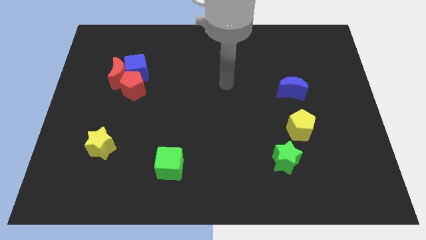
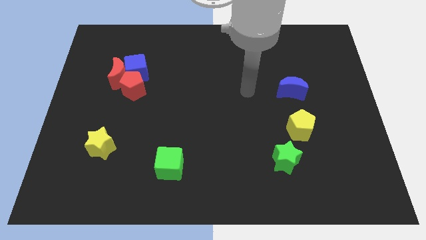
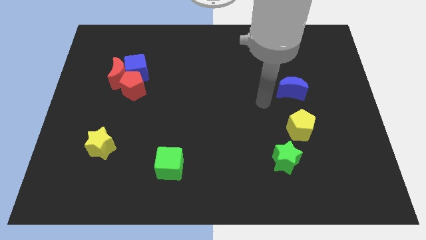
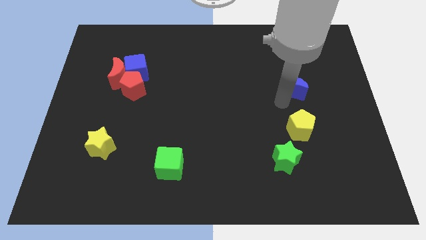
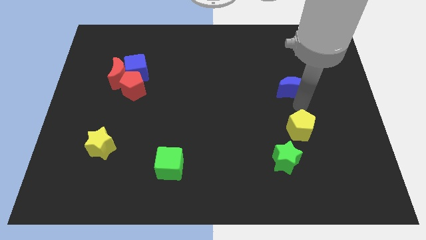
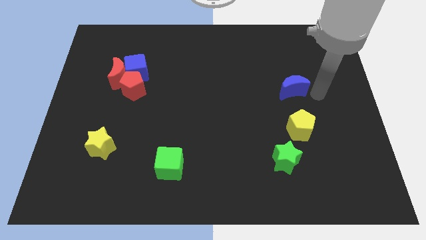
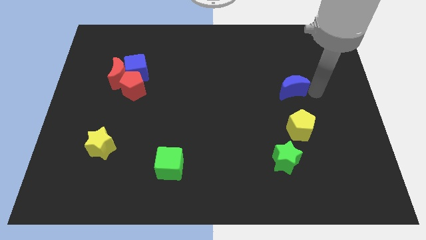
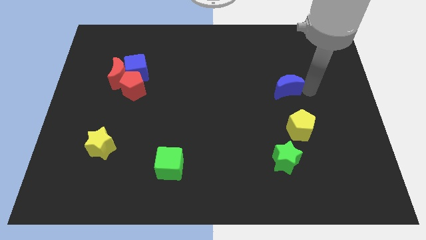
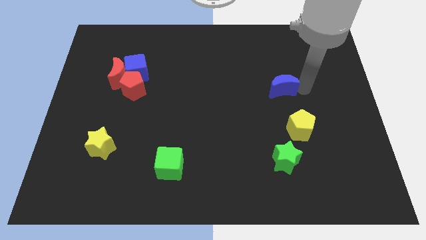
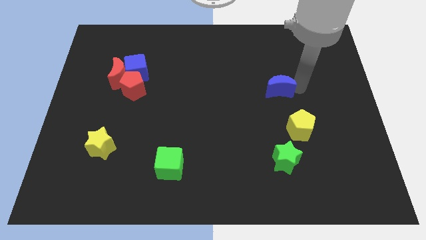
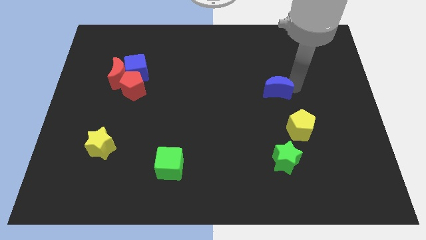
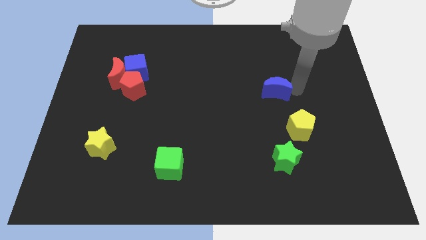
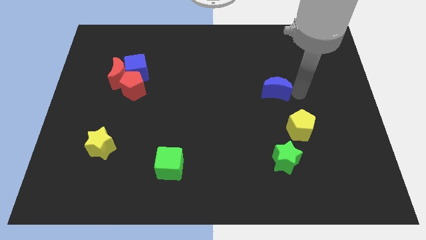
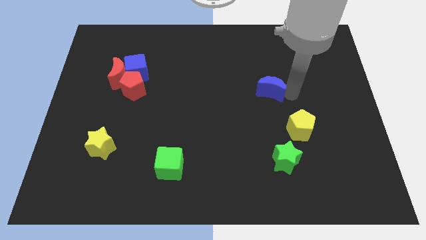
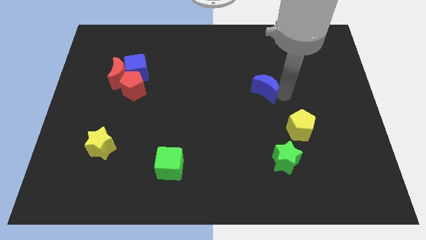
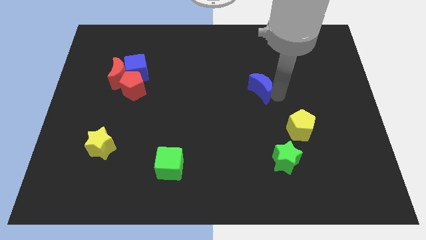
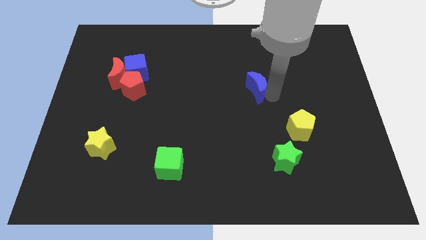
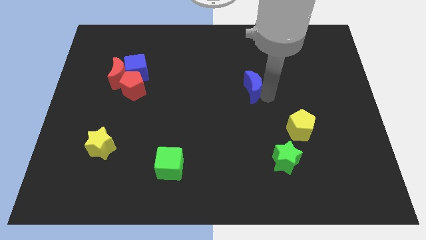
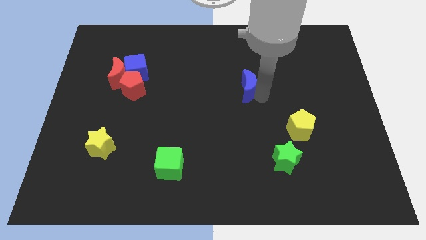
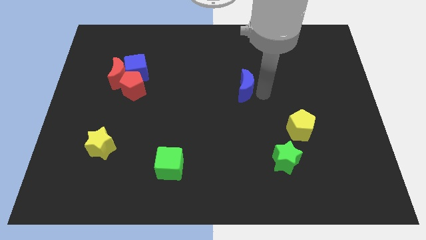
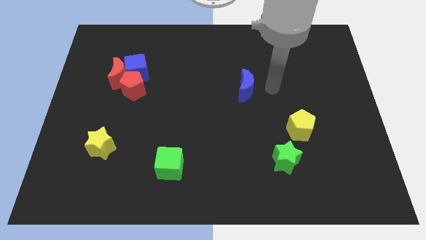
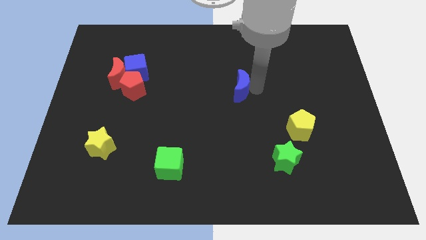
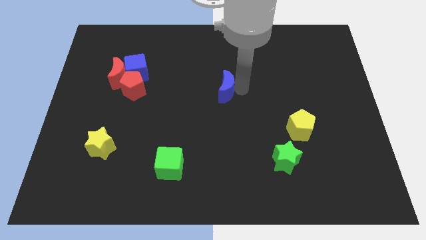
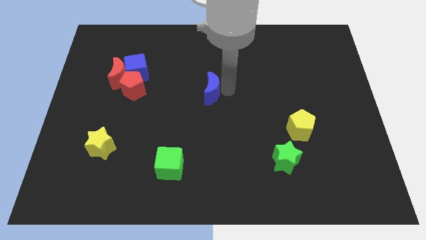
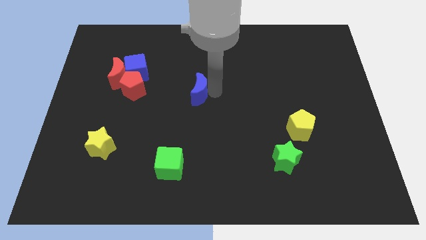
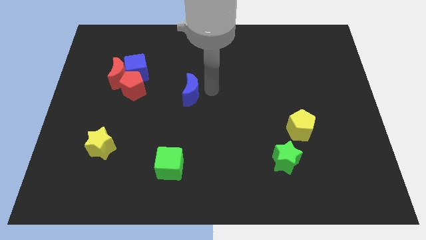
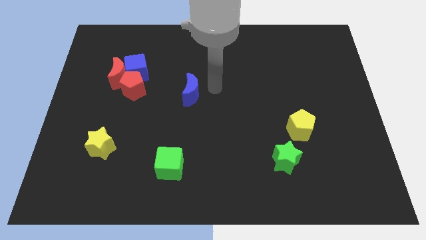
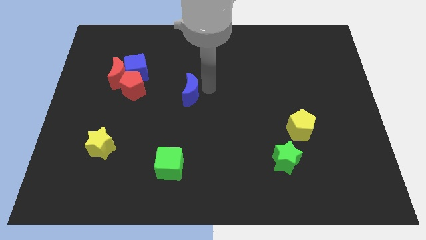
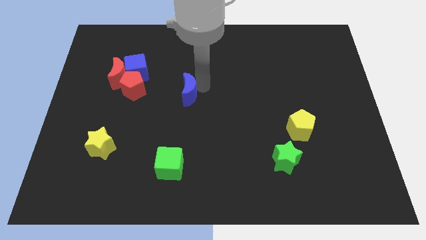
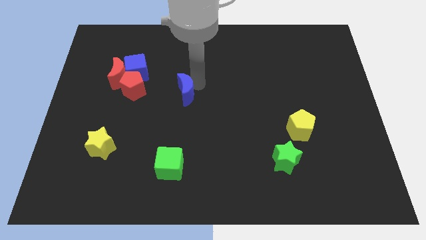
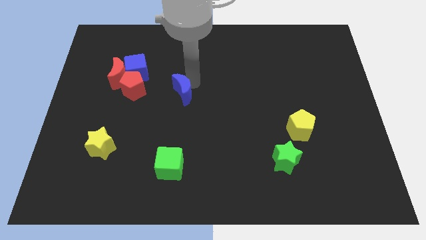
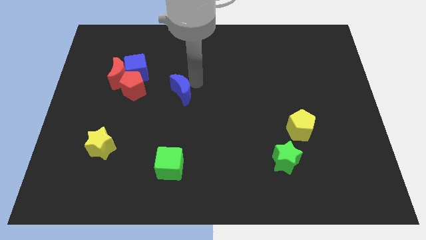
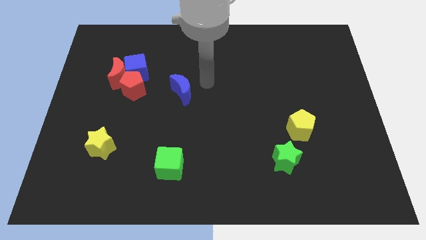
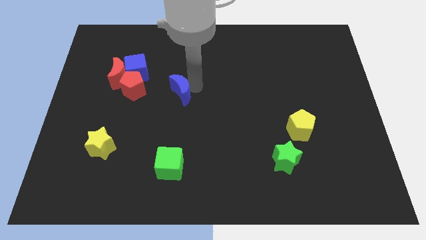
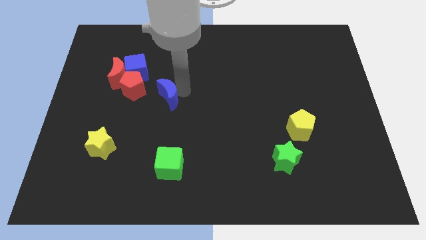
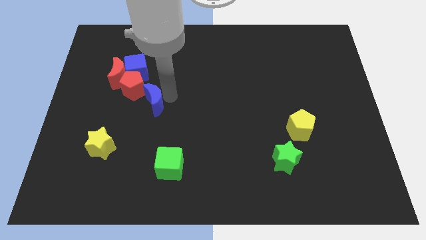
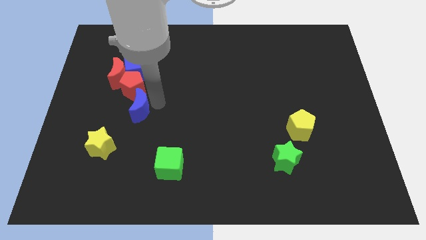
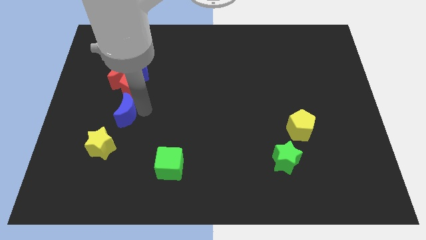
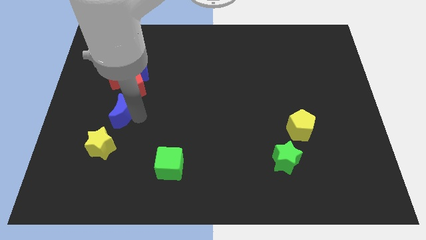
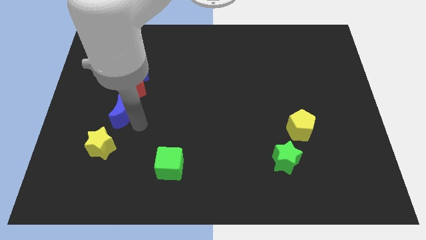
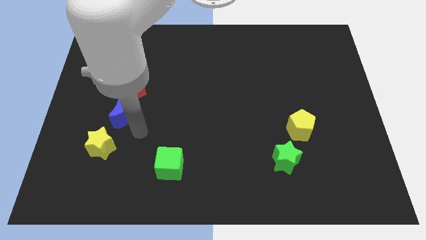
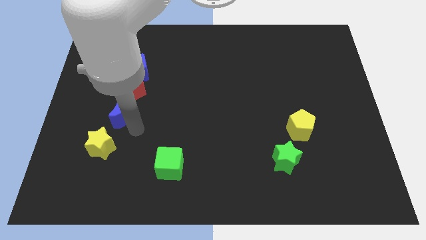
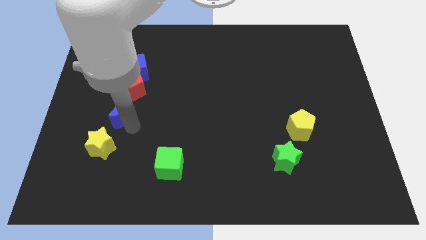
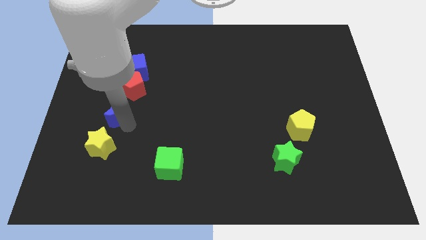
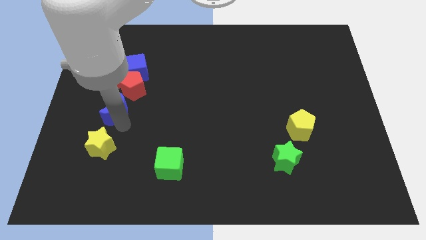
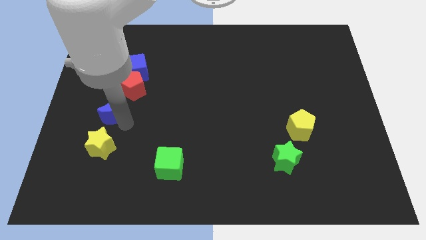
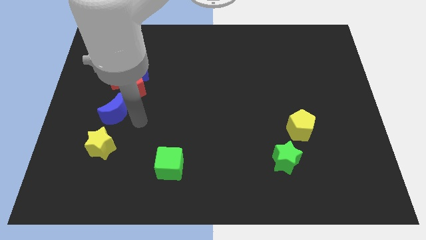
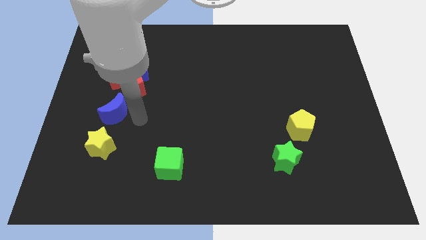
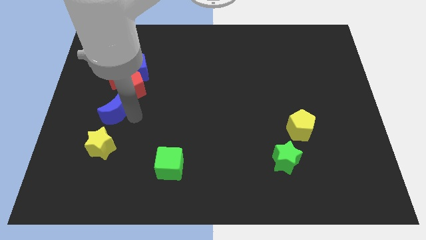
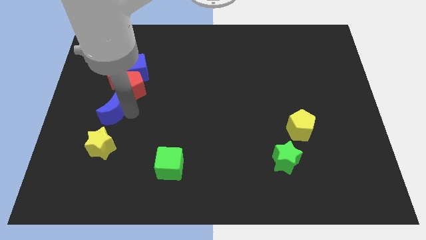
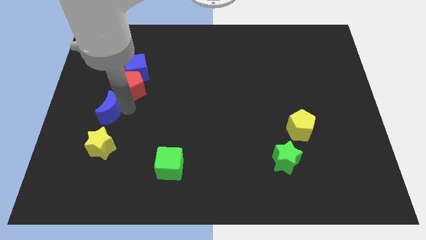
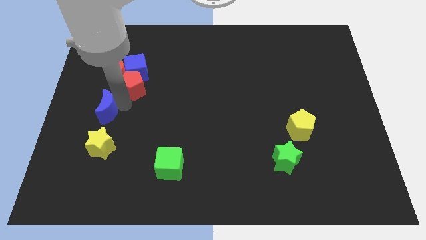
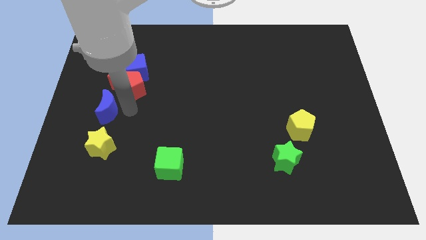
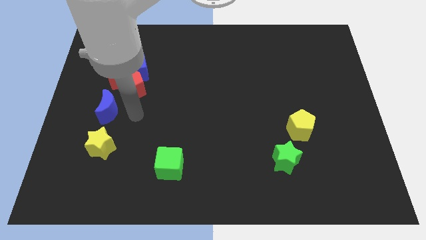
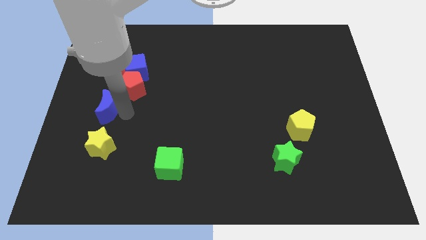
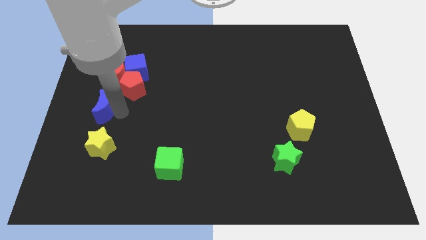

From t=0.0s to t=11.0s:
slide the blue moon to the center left

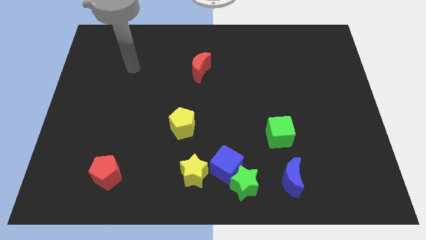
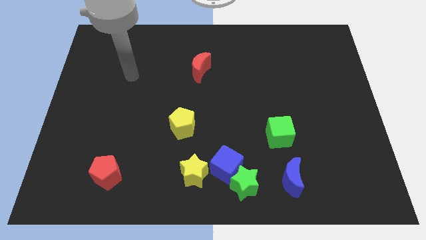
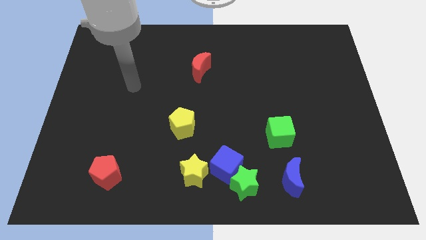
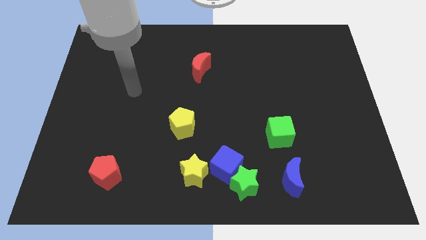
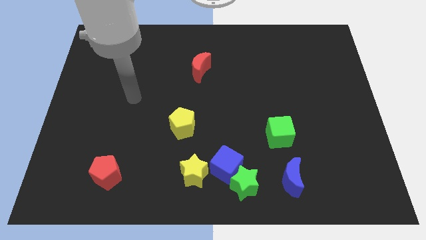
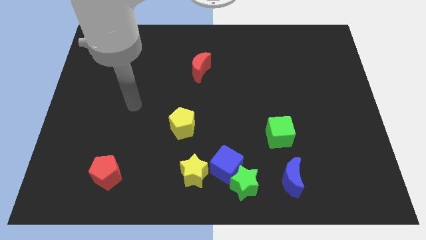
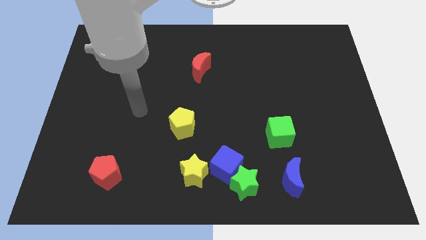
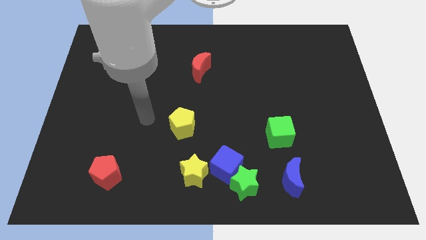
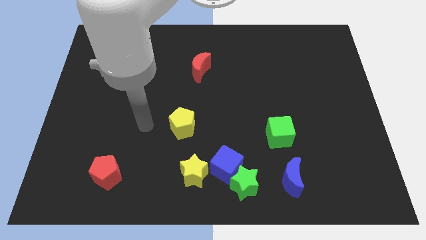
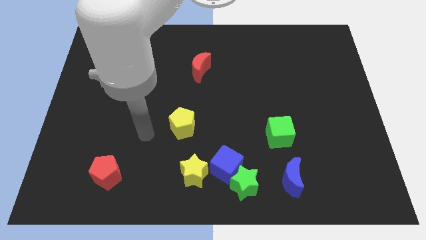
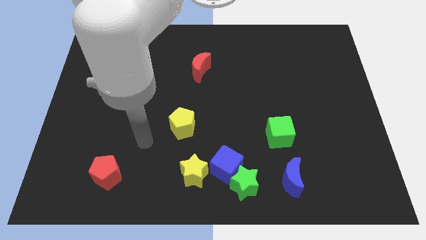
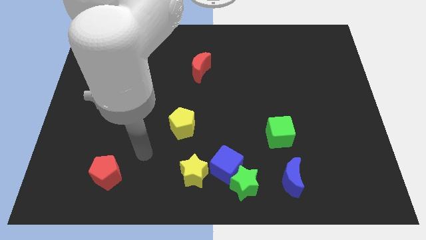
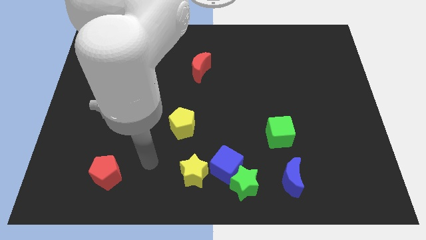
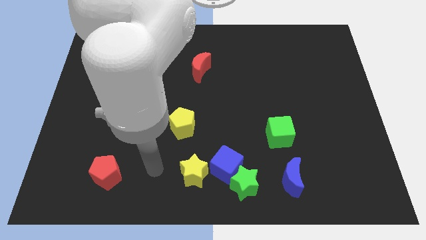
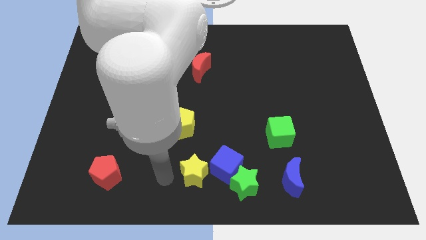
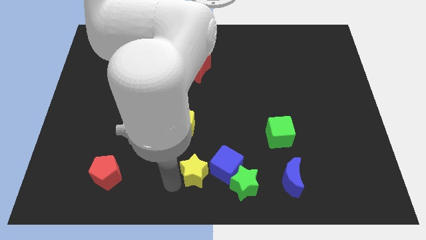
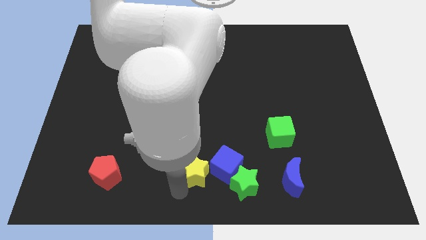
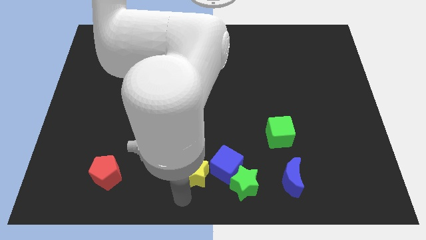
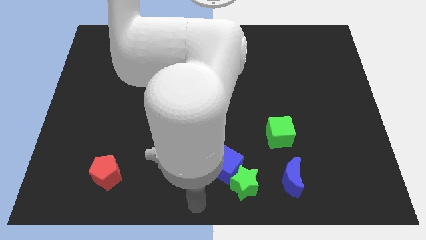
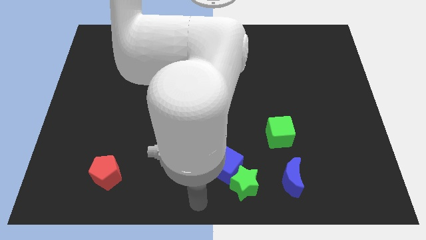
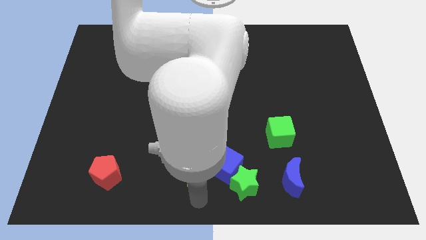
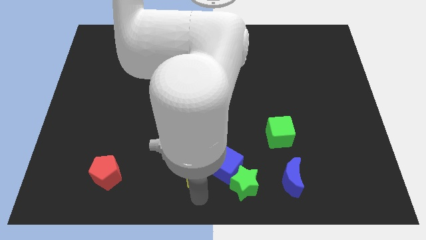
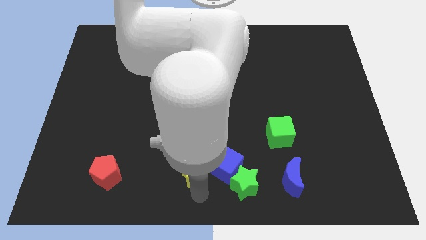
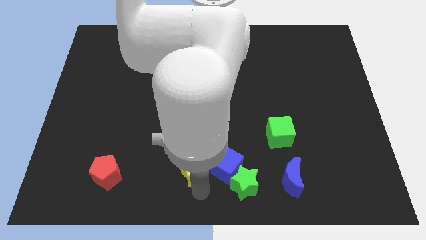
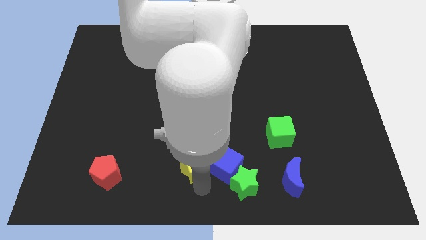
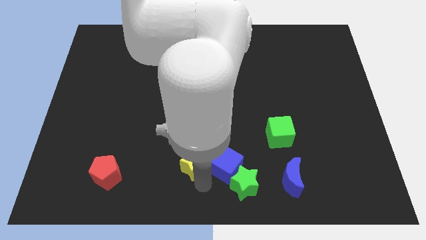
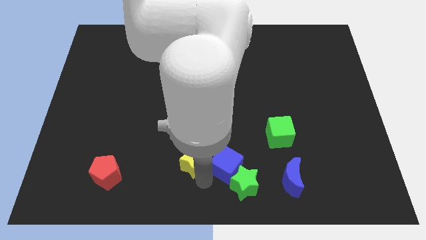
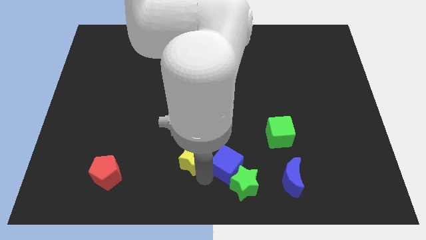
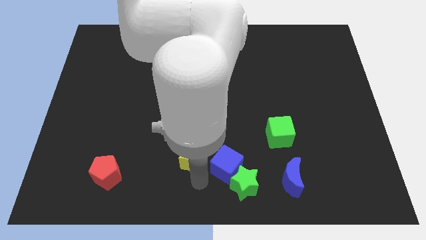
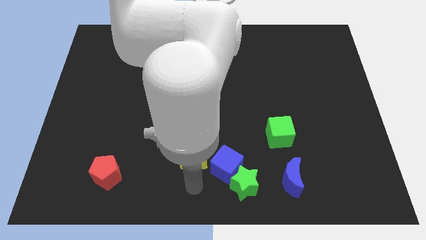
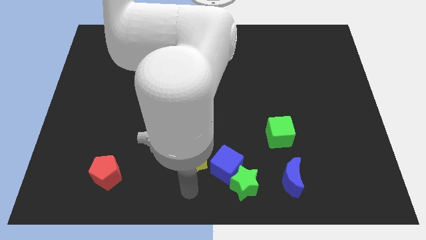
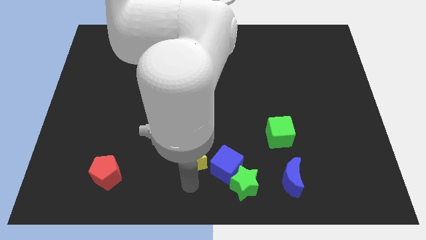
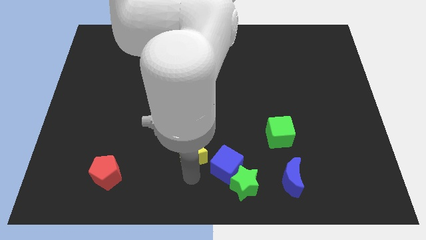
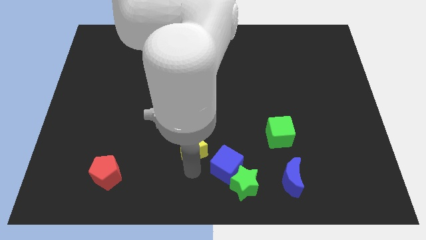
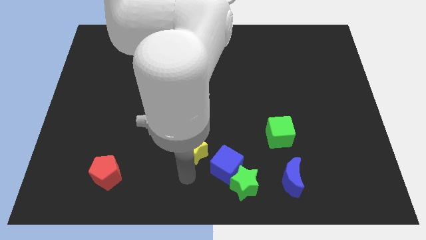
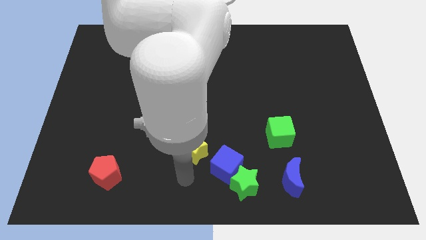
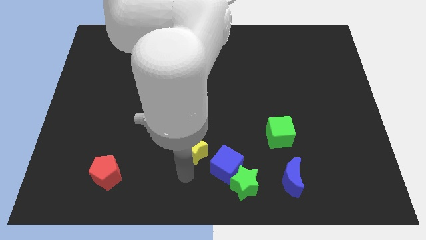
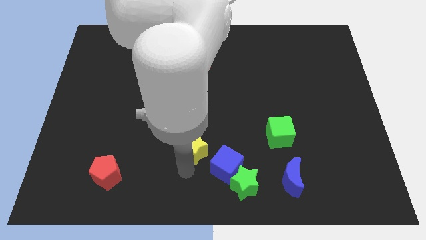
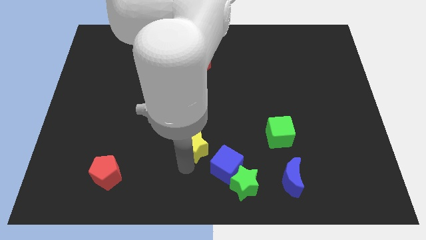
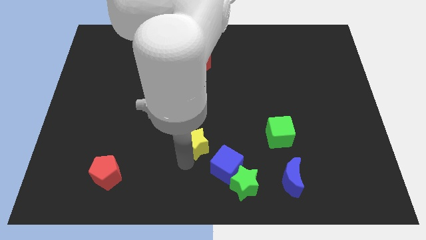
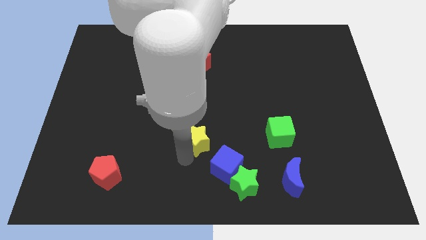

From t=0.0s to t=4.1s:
slide the yellow star to the center of the board
